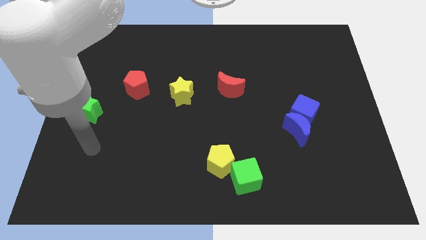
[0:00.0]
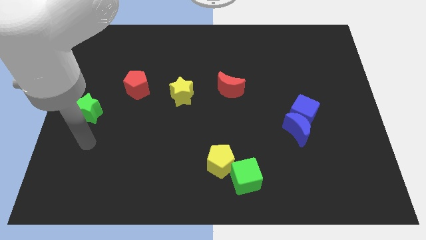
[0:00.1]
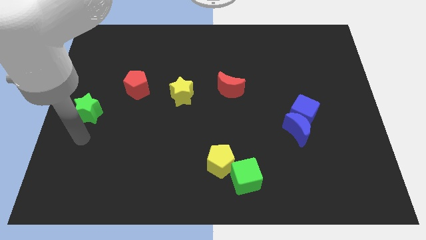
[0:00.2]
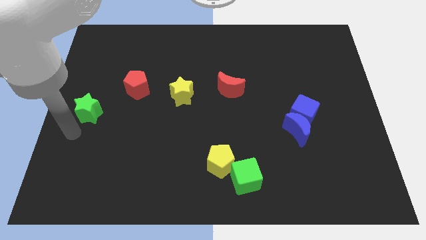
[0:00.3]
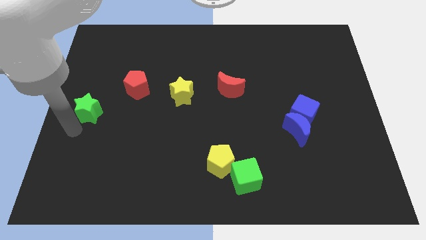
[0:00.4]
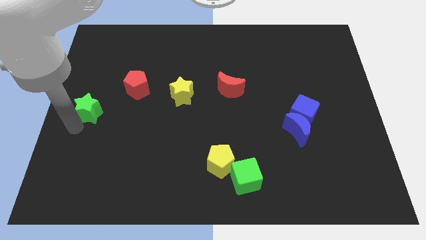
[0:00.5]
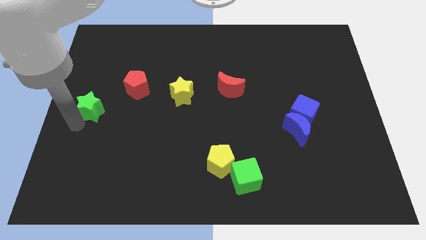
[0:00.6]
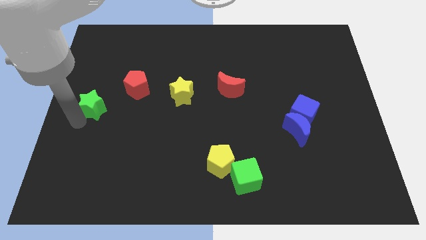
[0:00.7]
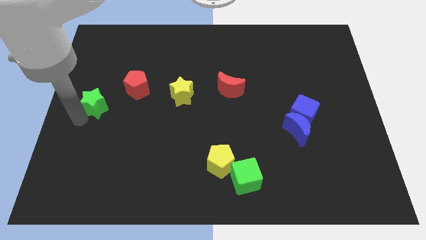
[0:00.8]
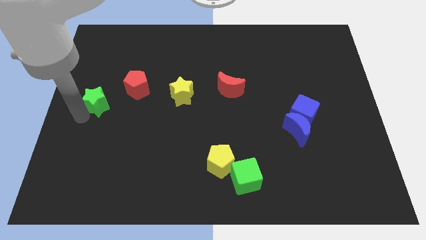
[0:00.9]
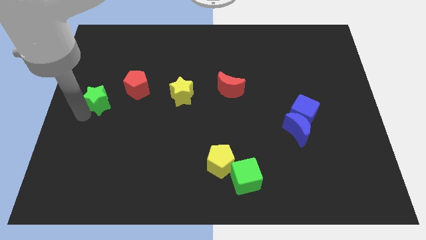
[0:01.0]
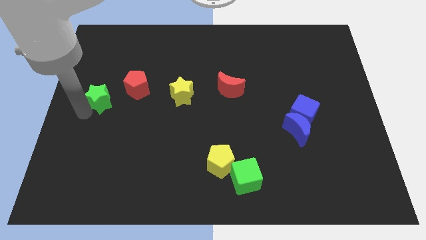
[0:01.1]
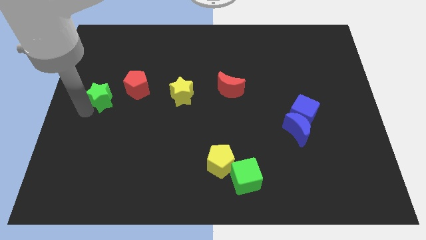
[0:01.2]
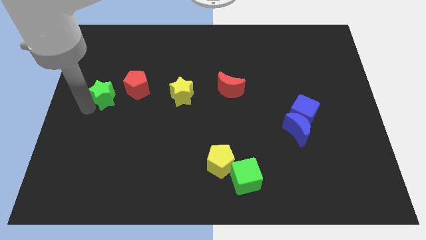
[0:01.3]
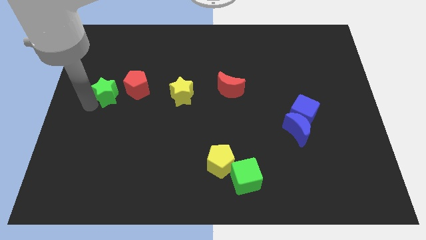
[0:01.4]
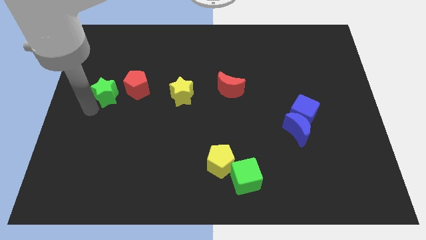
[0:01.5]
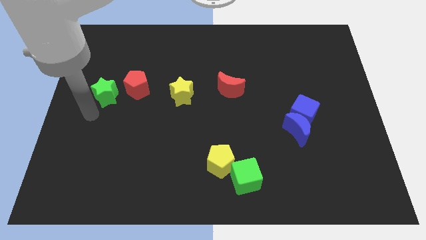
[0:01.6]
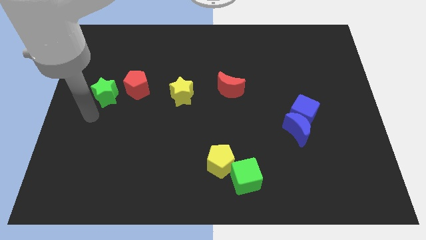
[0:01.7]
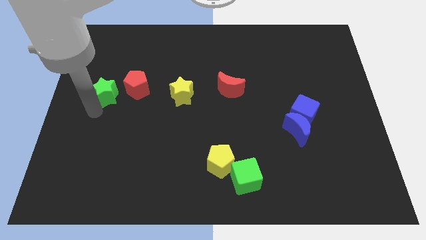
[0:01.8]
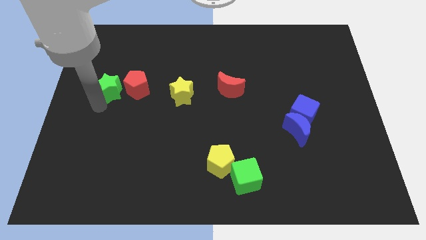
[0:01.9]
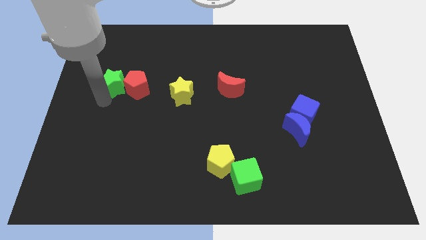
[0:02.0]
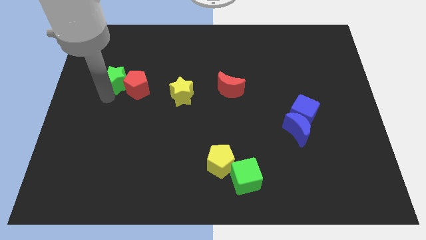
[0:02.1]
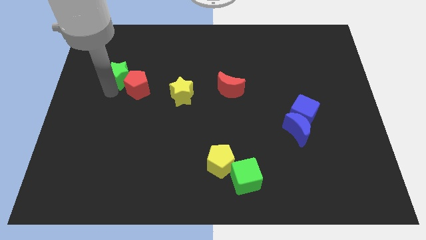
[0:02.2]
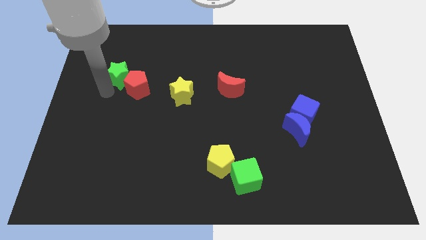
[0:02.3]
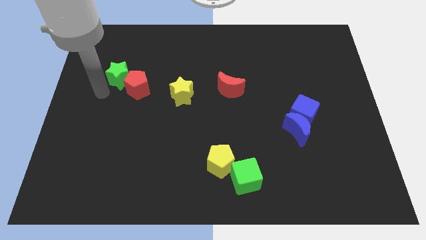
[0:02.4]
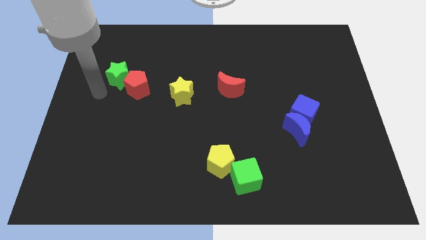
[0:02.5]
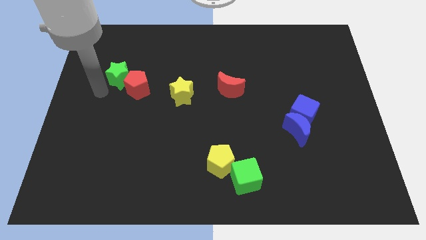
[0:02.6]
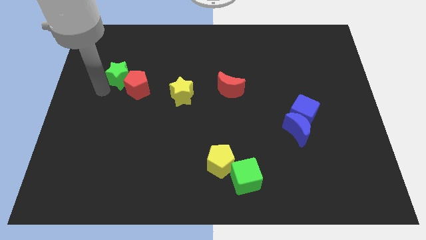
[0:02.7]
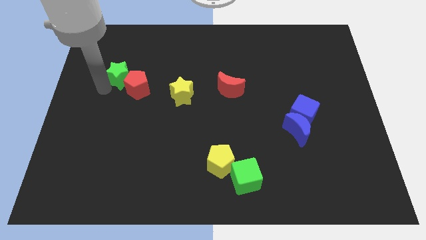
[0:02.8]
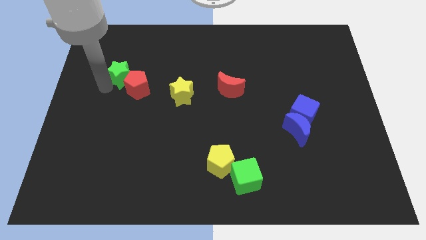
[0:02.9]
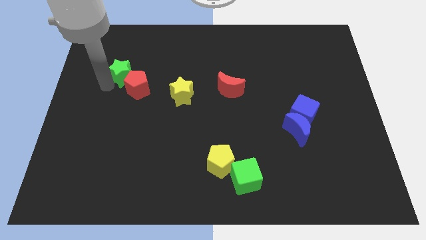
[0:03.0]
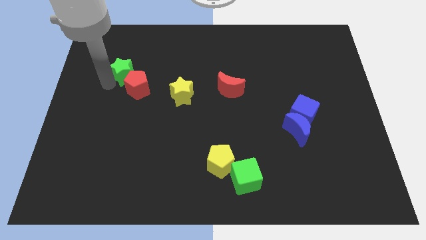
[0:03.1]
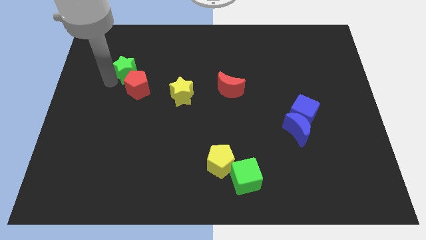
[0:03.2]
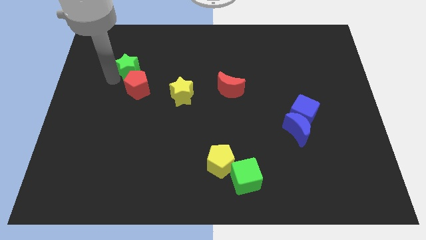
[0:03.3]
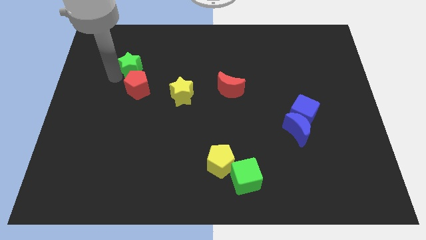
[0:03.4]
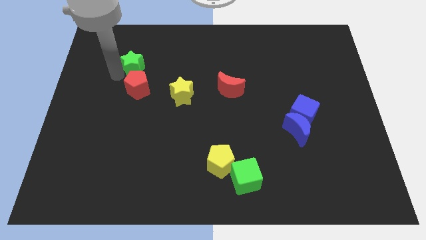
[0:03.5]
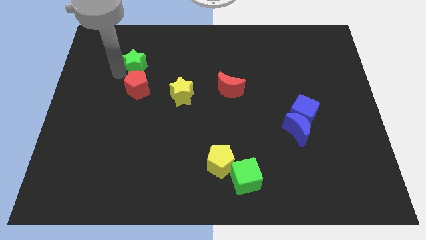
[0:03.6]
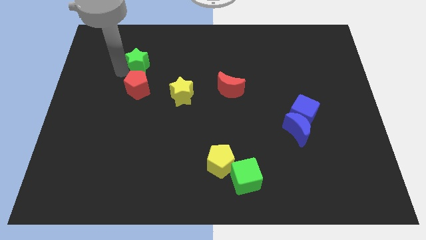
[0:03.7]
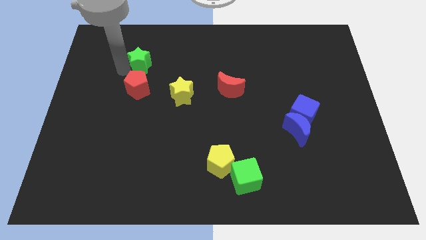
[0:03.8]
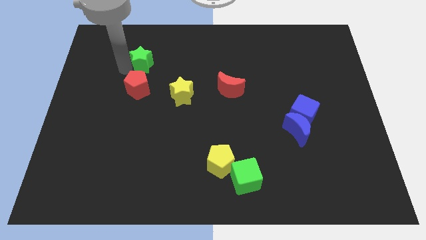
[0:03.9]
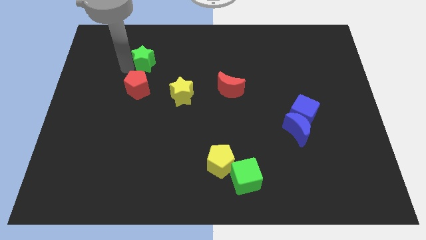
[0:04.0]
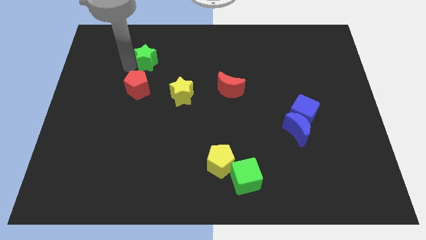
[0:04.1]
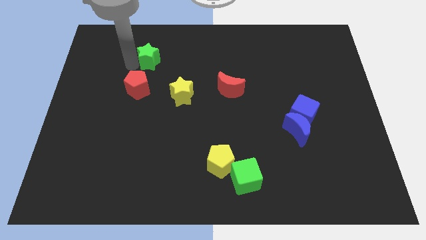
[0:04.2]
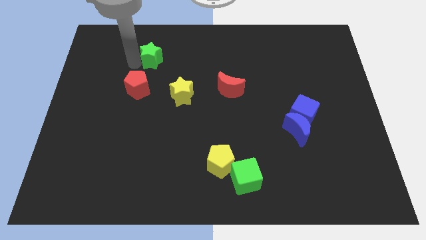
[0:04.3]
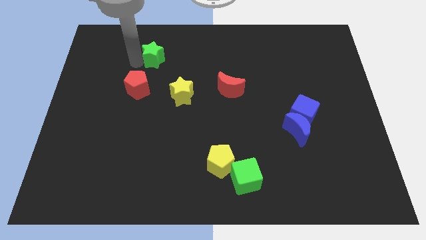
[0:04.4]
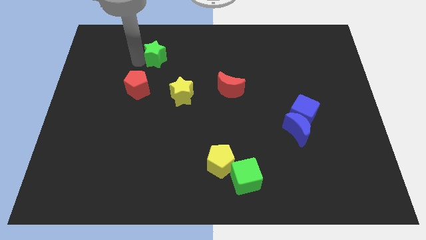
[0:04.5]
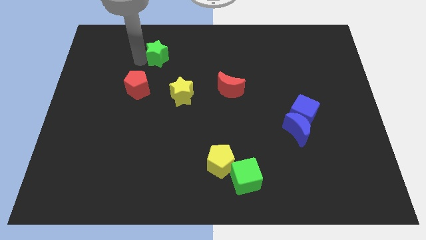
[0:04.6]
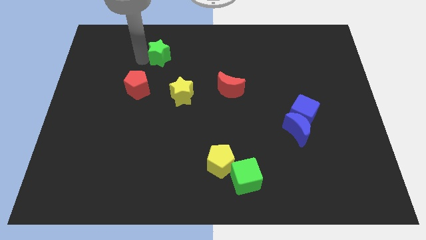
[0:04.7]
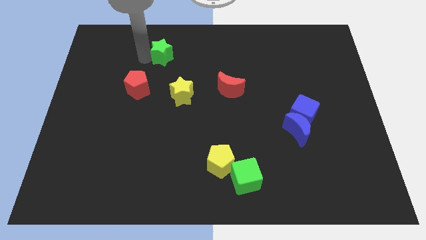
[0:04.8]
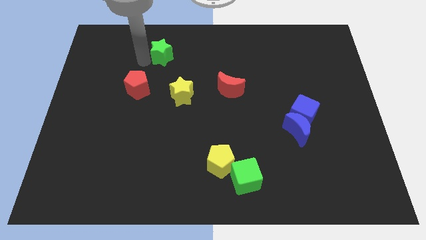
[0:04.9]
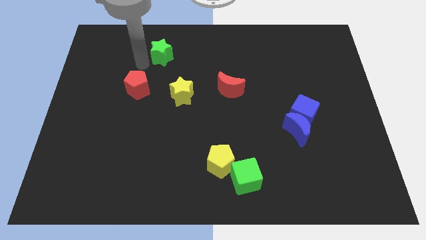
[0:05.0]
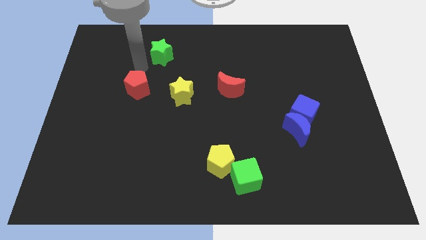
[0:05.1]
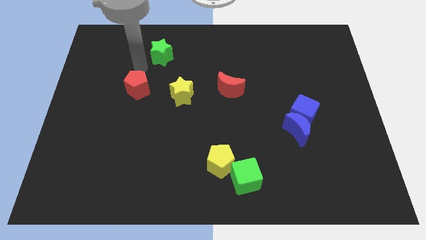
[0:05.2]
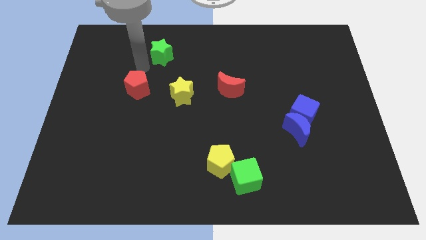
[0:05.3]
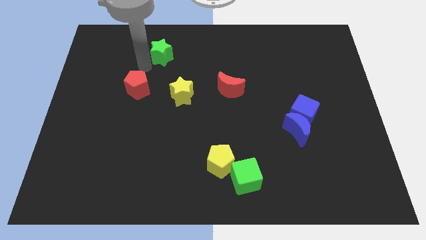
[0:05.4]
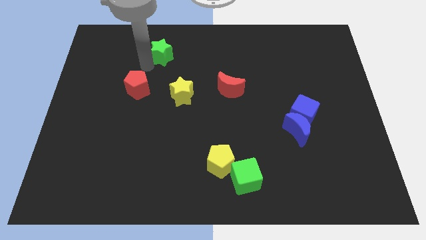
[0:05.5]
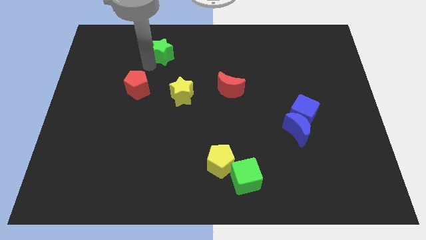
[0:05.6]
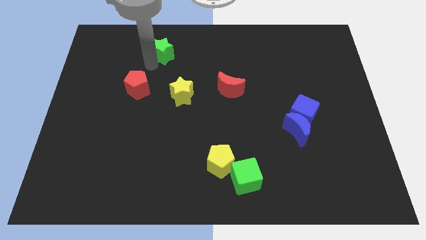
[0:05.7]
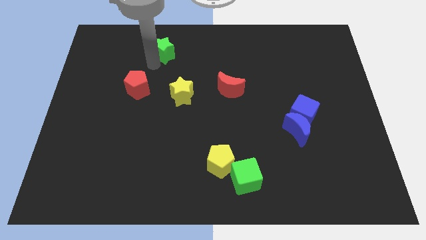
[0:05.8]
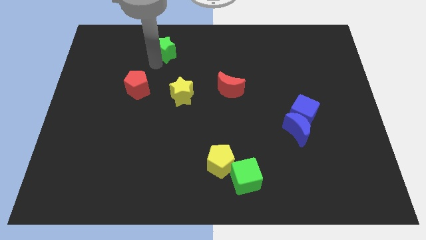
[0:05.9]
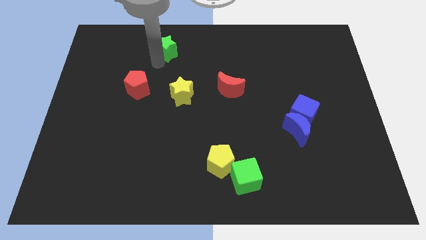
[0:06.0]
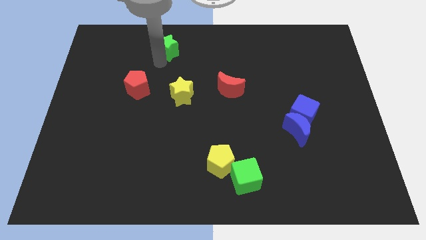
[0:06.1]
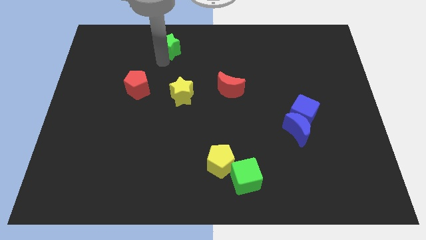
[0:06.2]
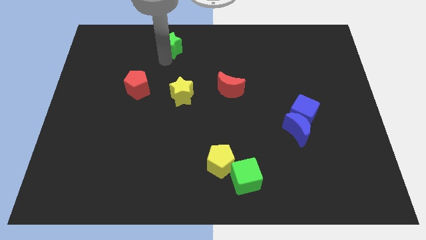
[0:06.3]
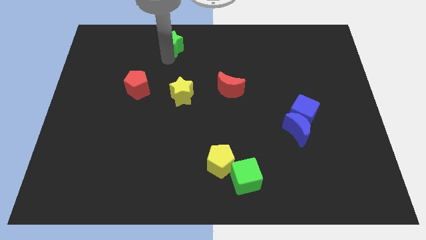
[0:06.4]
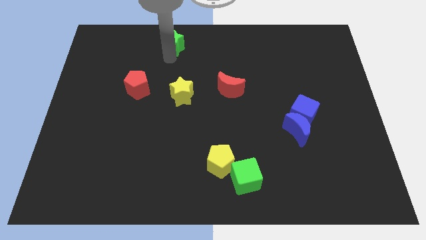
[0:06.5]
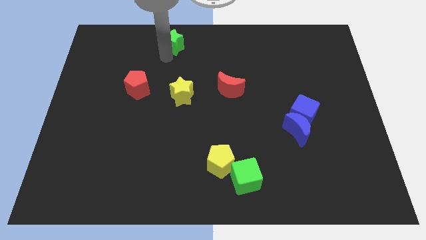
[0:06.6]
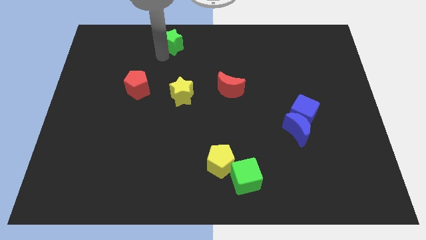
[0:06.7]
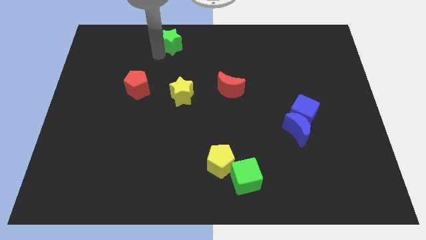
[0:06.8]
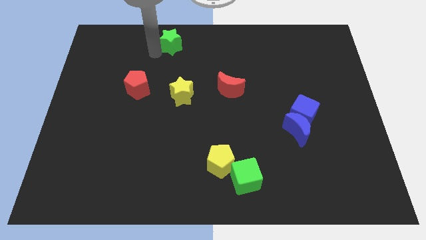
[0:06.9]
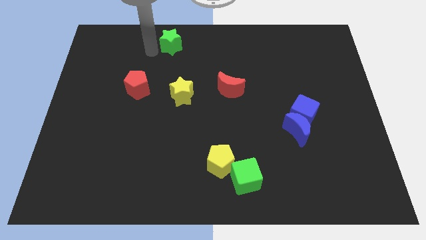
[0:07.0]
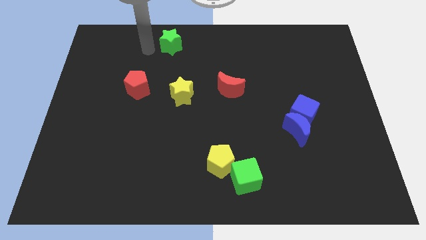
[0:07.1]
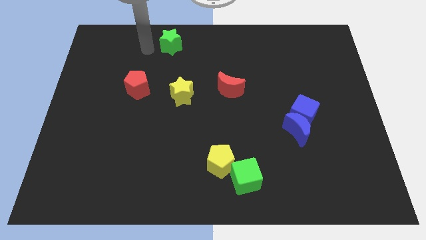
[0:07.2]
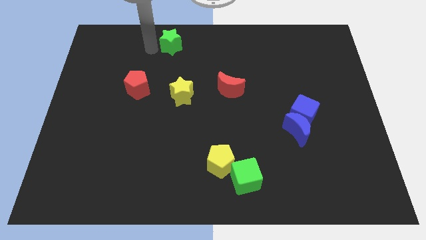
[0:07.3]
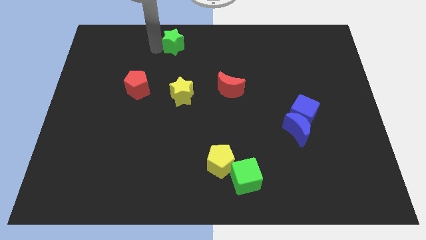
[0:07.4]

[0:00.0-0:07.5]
move the green star to the top
